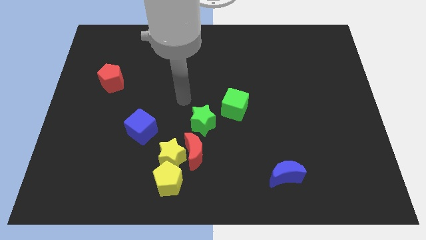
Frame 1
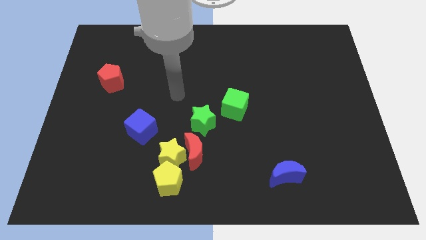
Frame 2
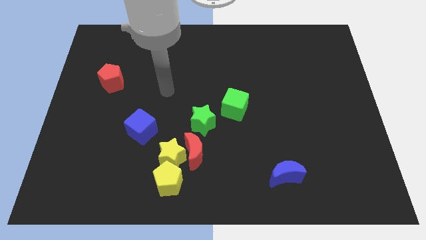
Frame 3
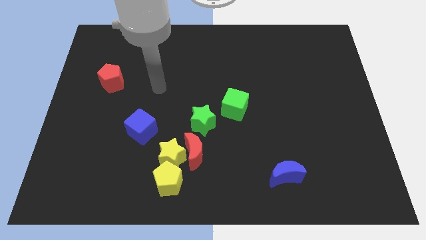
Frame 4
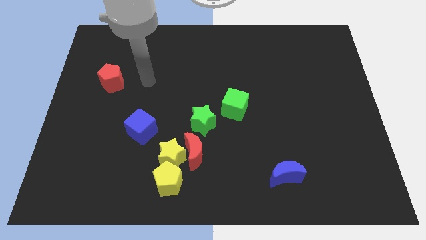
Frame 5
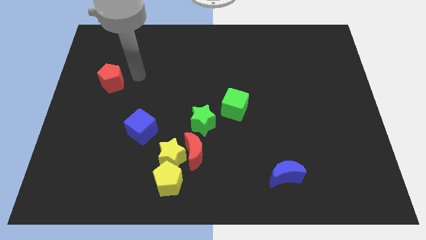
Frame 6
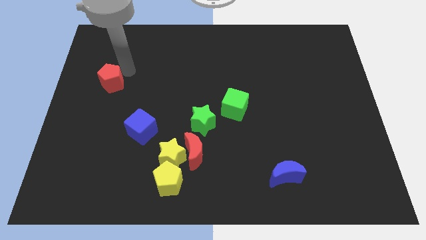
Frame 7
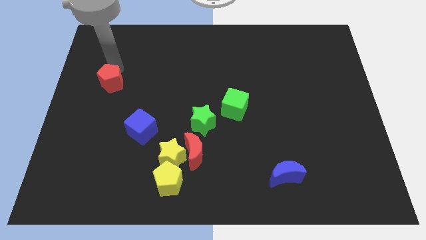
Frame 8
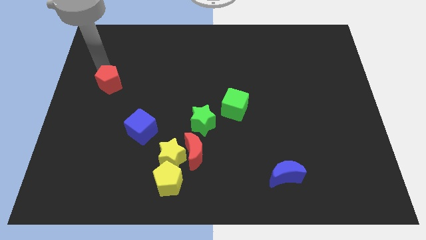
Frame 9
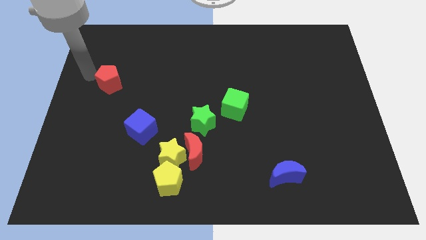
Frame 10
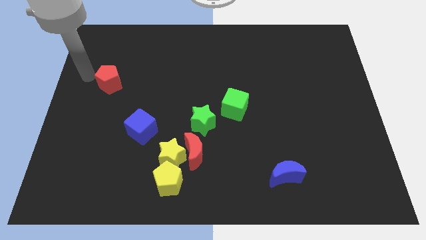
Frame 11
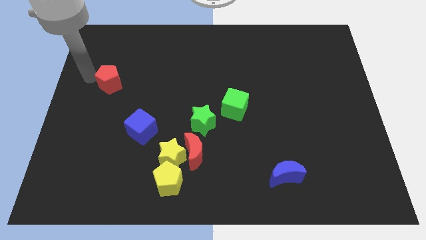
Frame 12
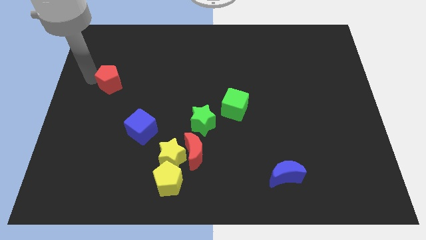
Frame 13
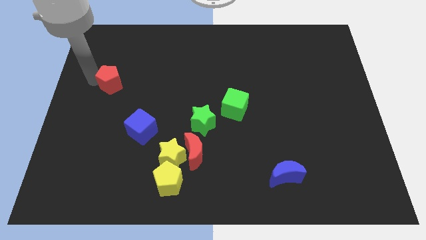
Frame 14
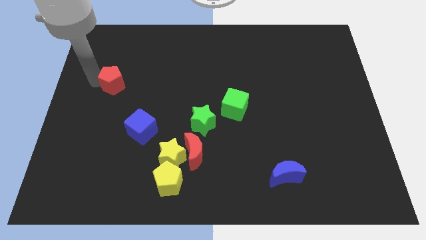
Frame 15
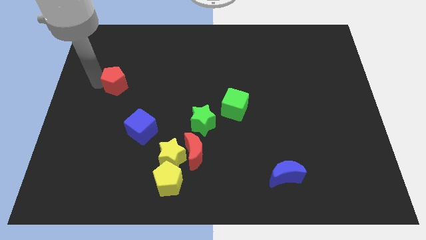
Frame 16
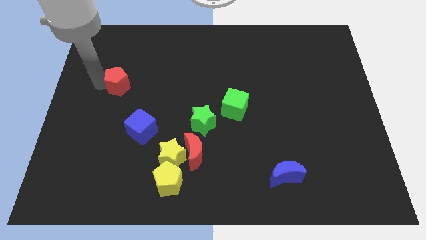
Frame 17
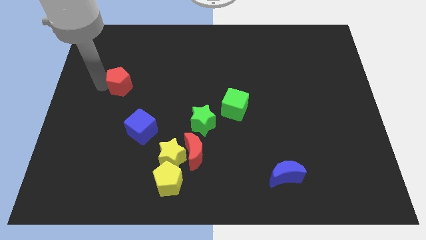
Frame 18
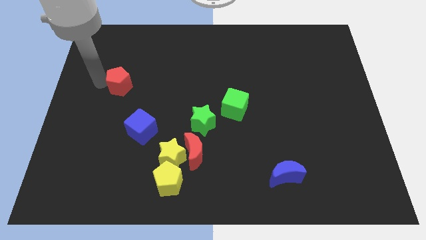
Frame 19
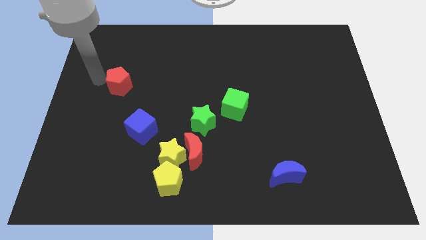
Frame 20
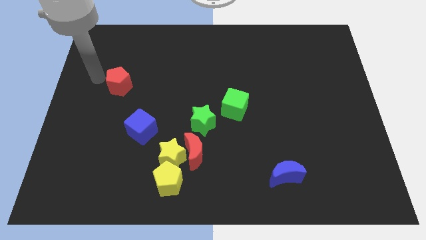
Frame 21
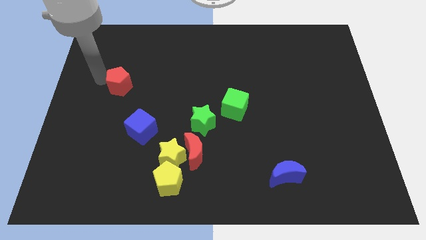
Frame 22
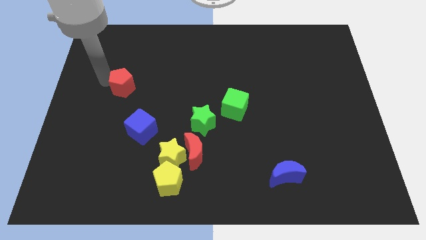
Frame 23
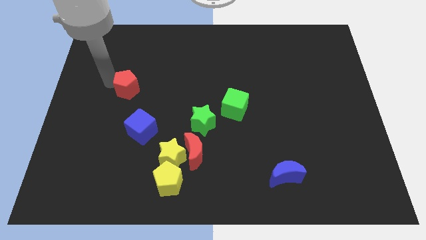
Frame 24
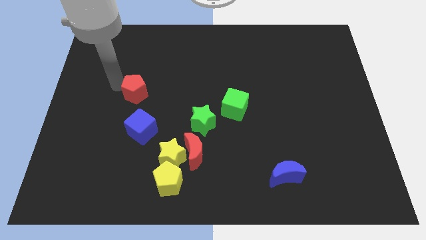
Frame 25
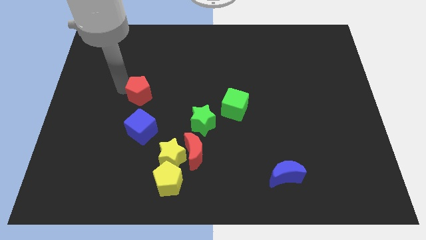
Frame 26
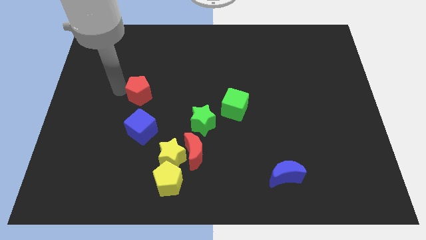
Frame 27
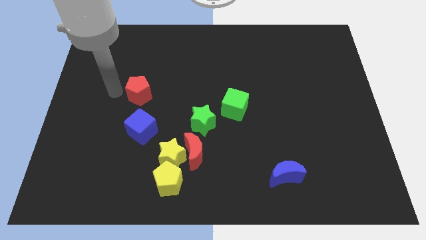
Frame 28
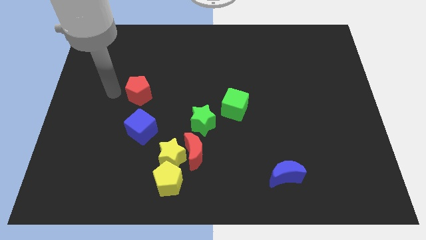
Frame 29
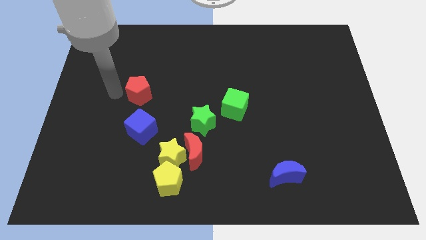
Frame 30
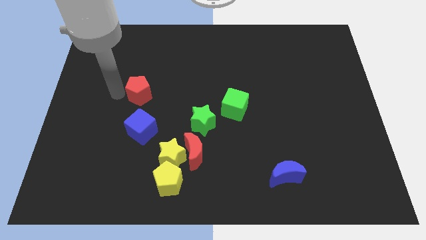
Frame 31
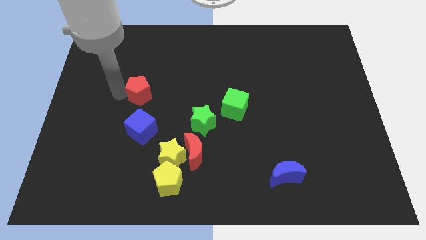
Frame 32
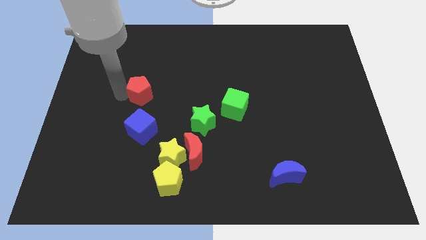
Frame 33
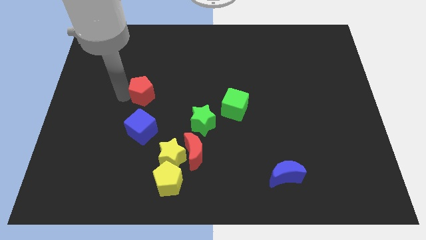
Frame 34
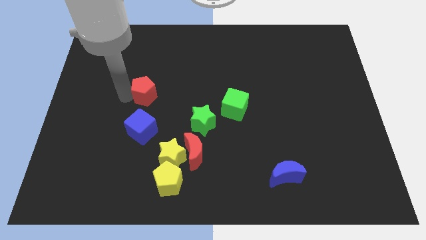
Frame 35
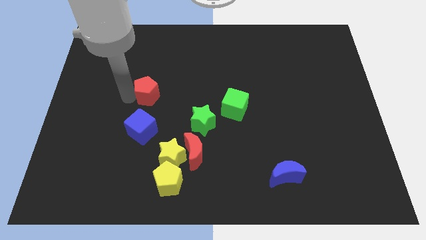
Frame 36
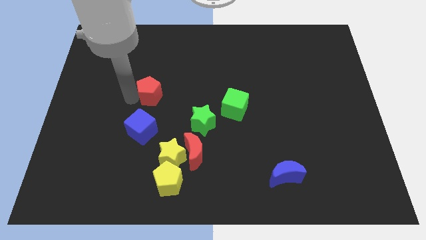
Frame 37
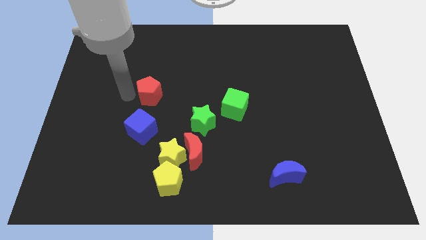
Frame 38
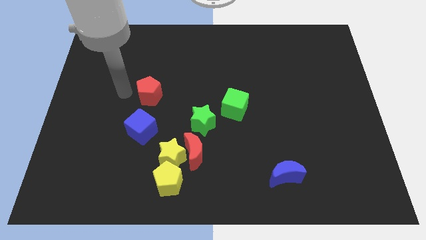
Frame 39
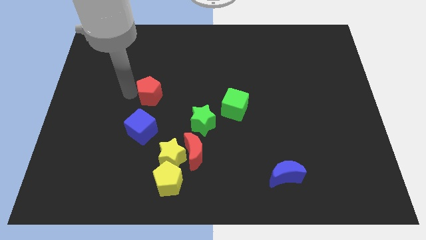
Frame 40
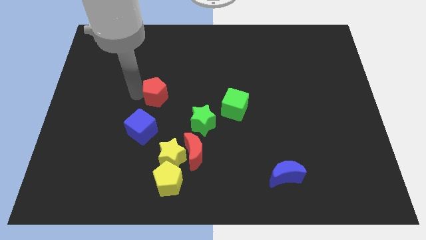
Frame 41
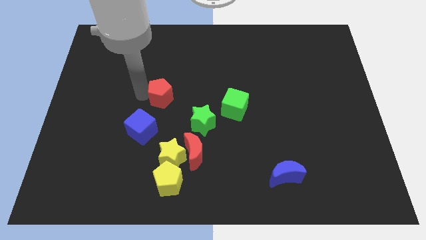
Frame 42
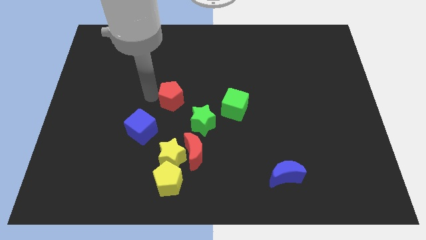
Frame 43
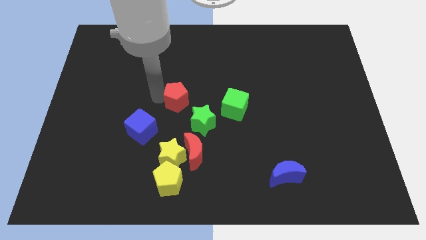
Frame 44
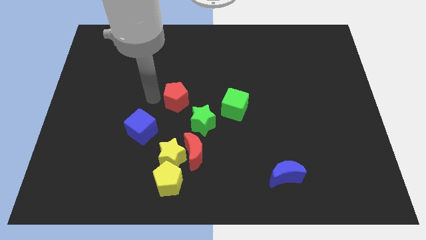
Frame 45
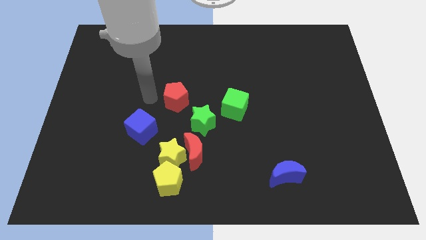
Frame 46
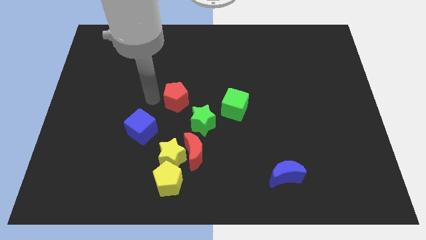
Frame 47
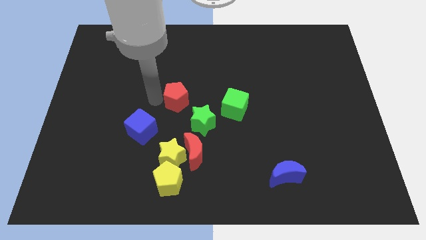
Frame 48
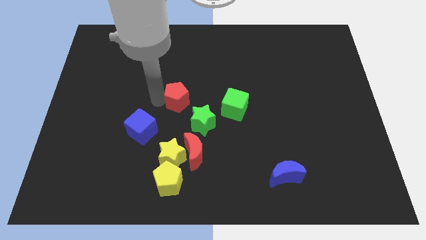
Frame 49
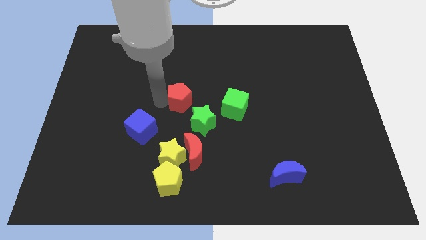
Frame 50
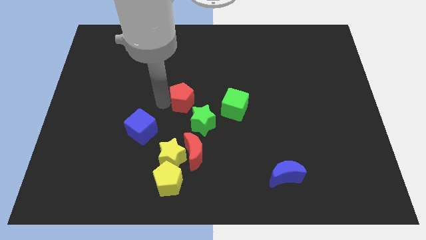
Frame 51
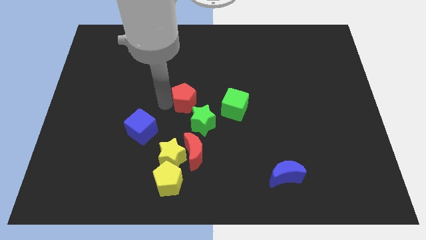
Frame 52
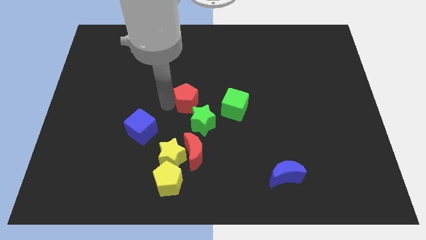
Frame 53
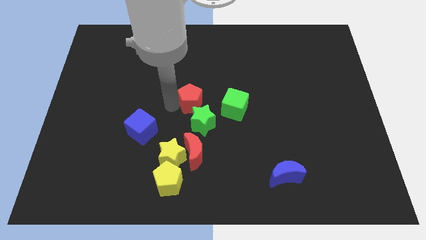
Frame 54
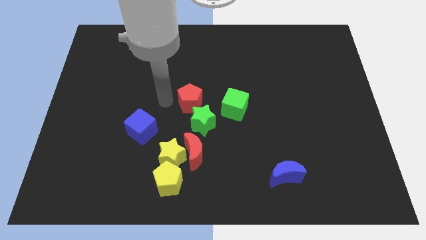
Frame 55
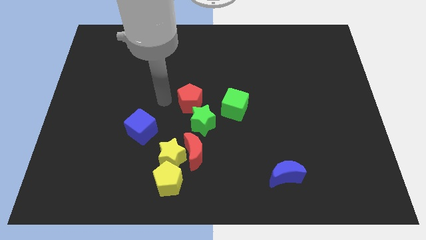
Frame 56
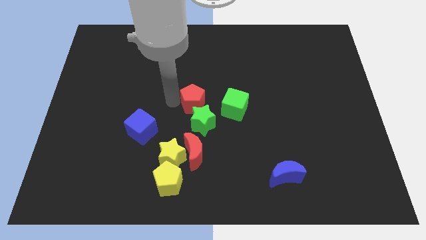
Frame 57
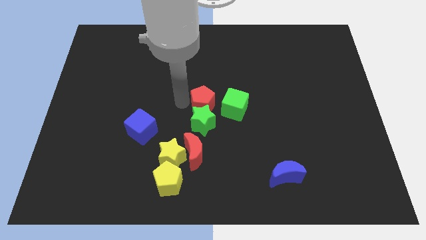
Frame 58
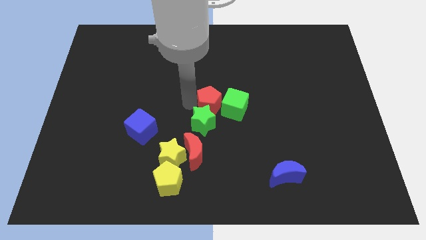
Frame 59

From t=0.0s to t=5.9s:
push the red pentagon to the green cube

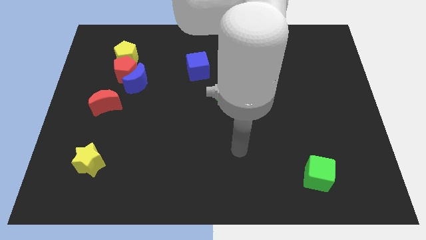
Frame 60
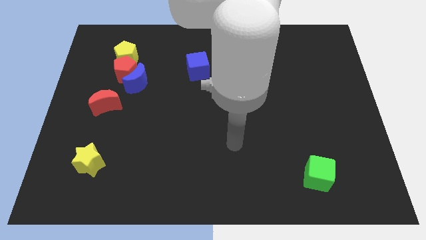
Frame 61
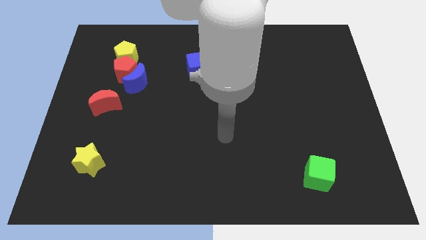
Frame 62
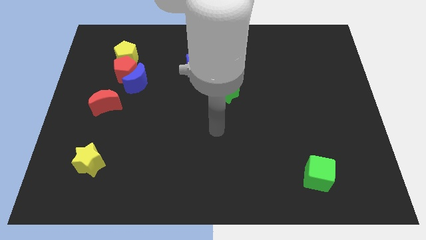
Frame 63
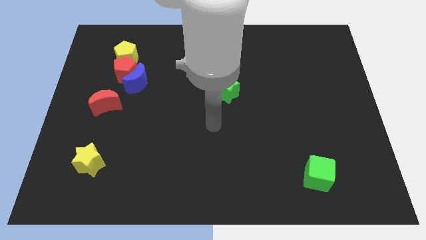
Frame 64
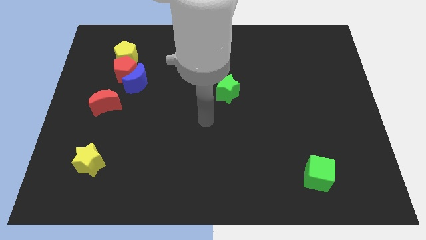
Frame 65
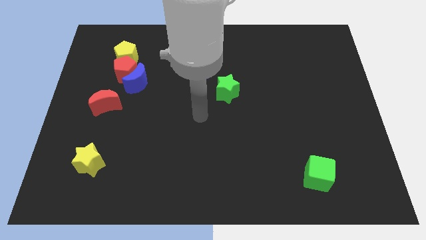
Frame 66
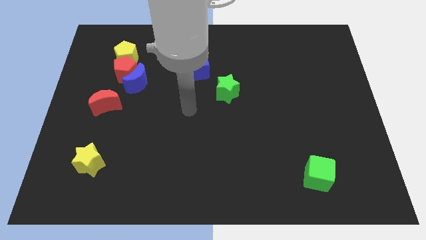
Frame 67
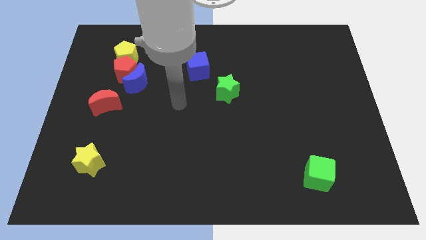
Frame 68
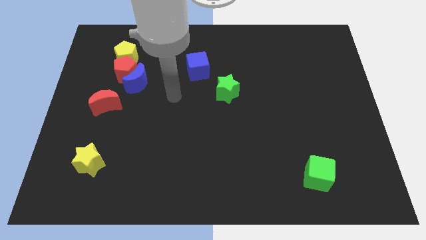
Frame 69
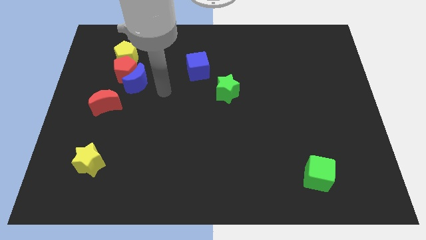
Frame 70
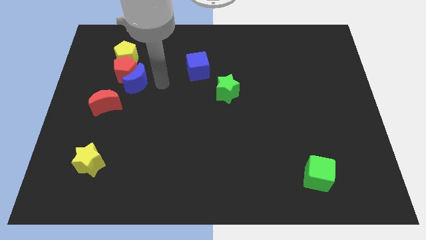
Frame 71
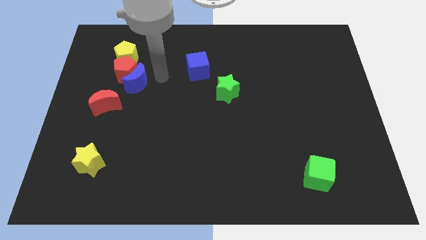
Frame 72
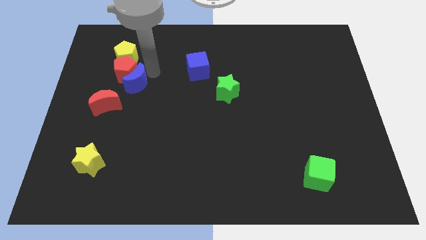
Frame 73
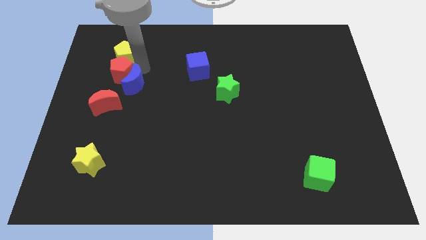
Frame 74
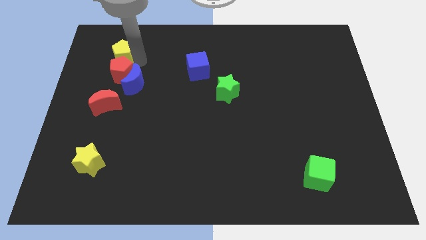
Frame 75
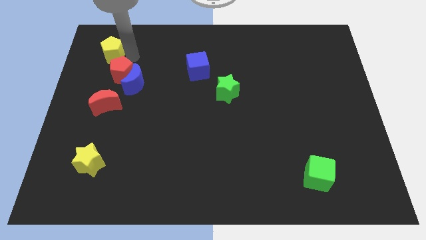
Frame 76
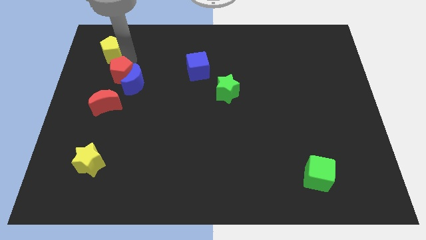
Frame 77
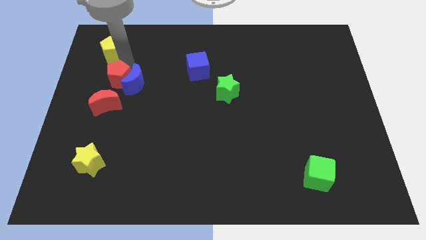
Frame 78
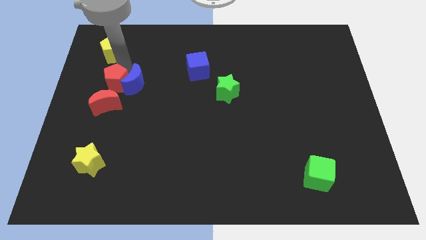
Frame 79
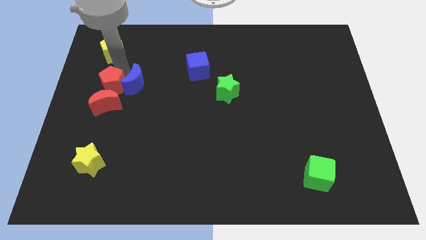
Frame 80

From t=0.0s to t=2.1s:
put the red pentagon close to the red moon
